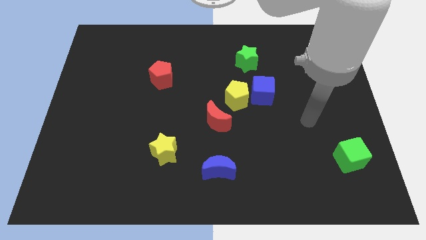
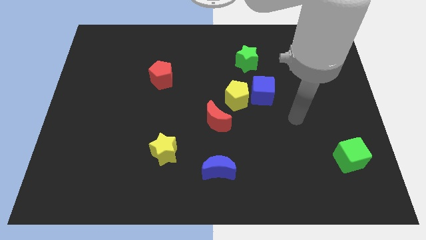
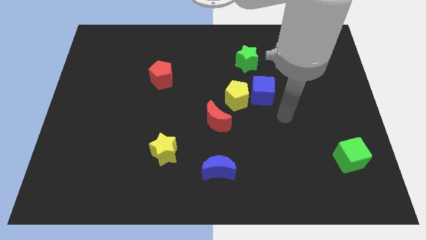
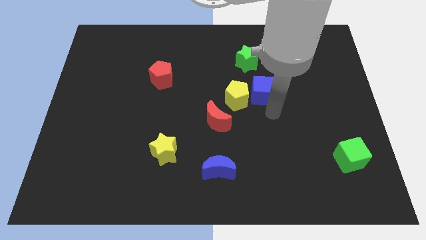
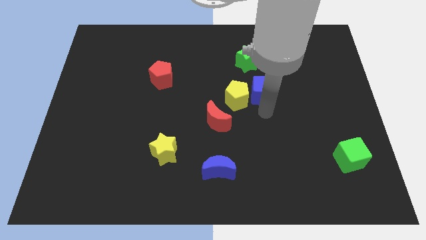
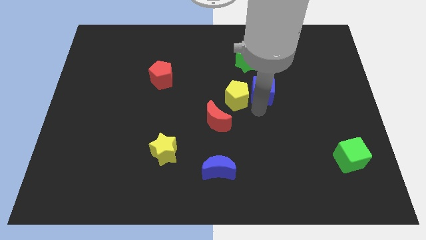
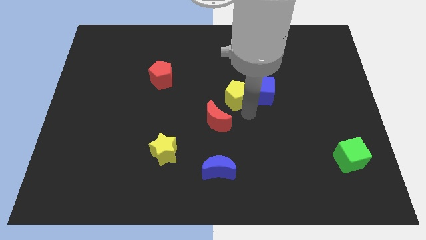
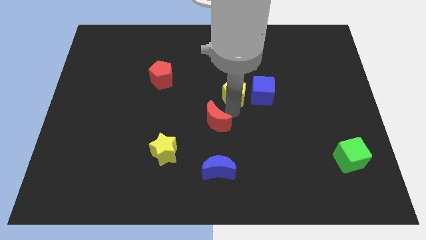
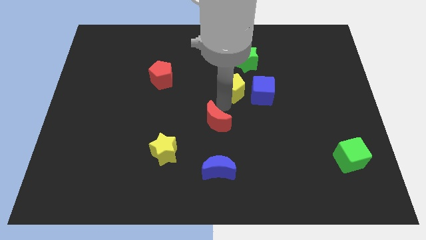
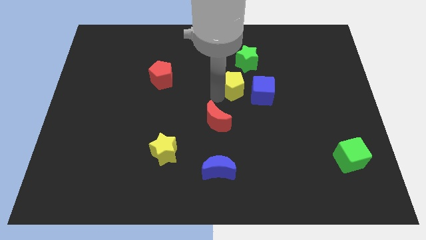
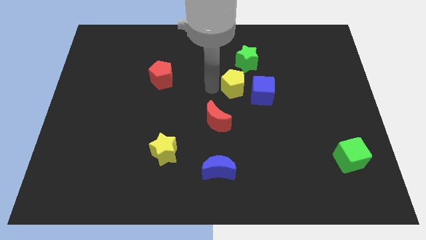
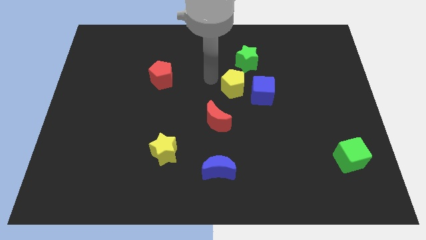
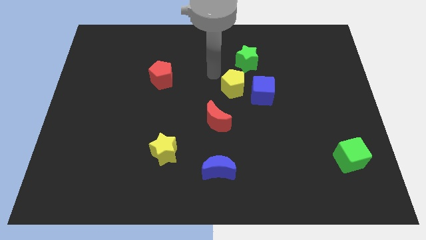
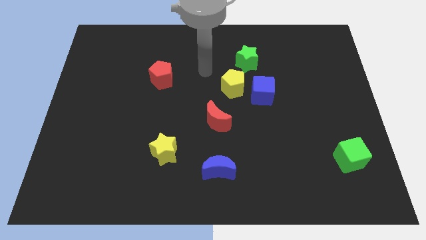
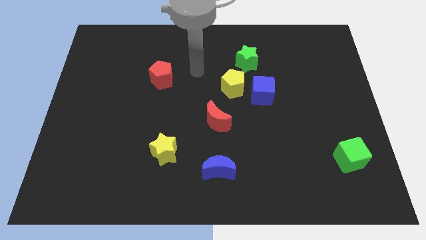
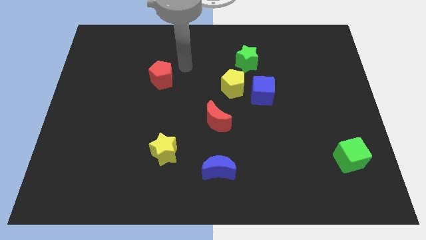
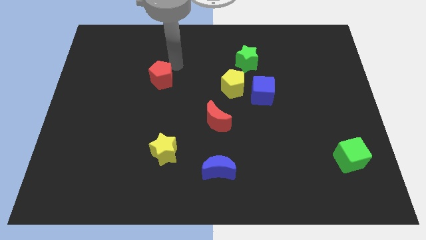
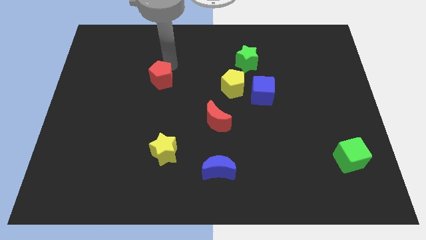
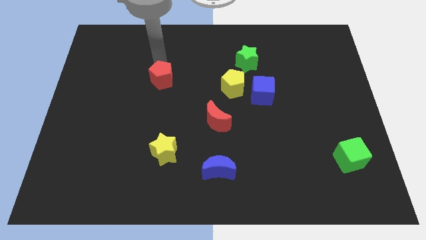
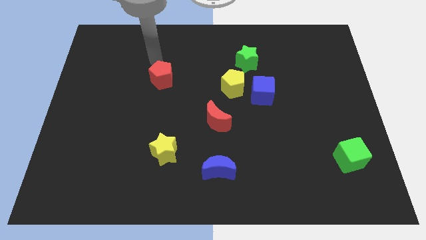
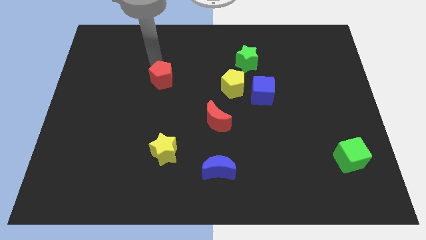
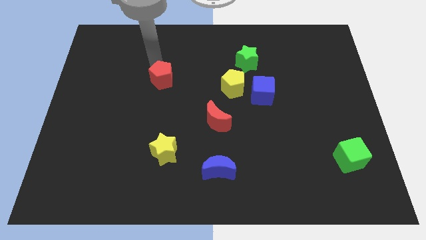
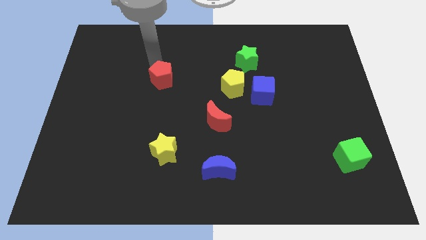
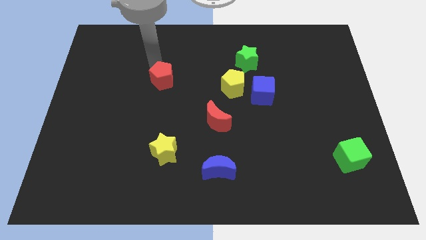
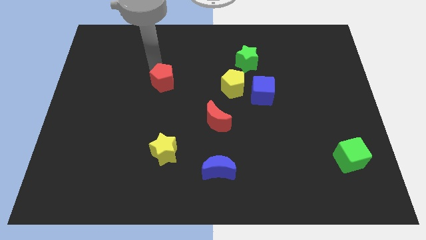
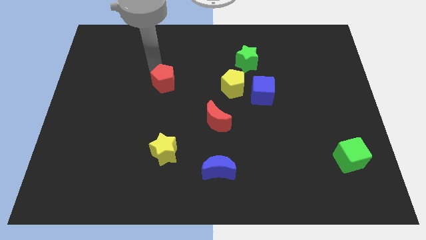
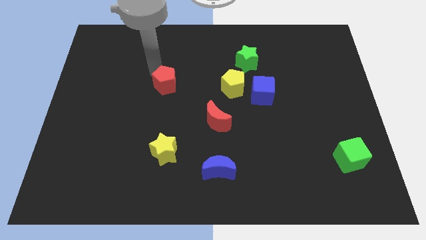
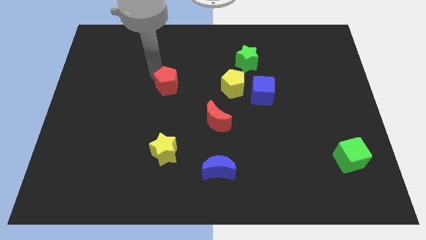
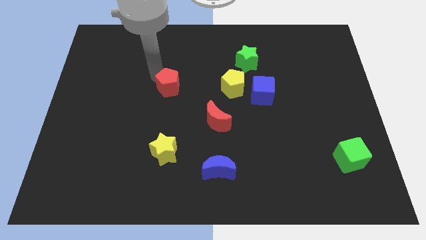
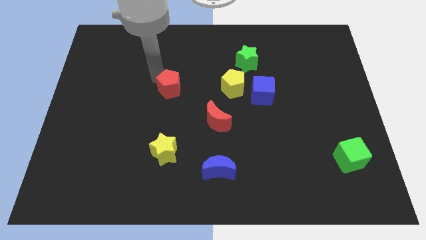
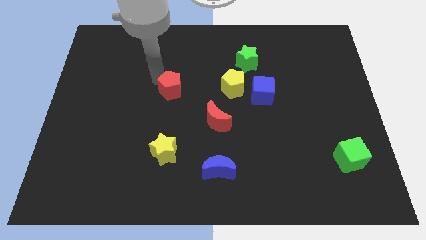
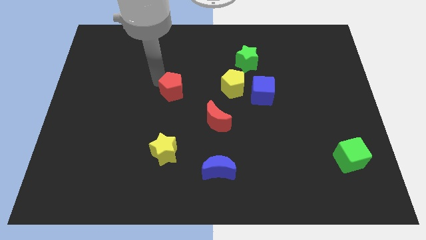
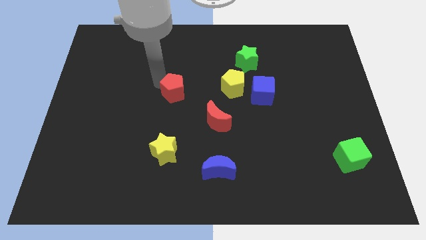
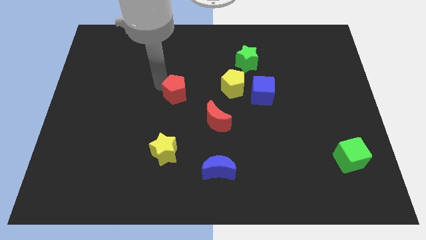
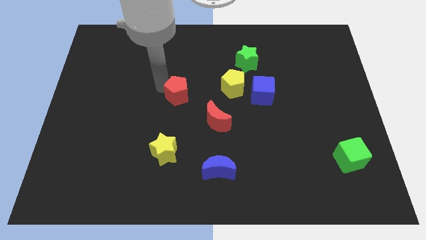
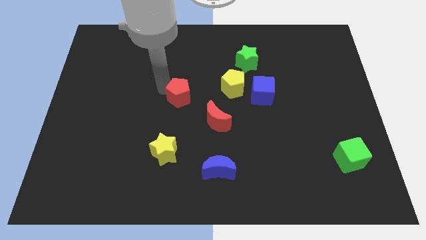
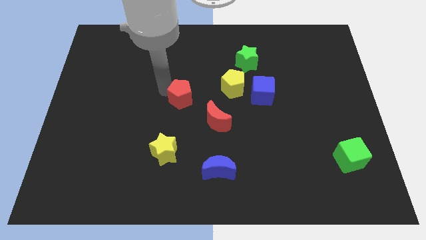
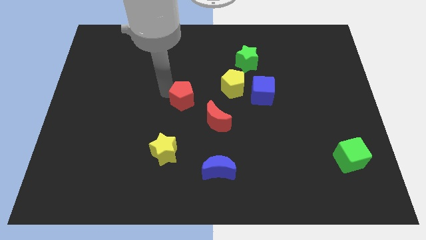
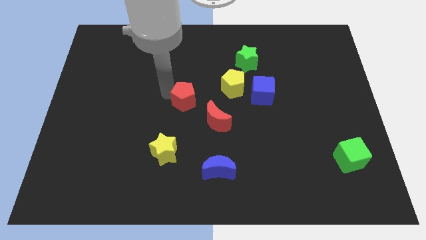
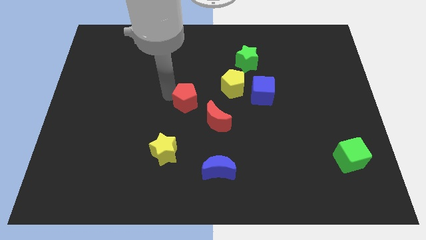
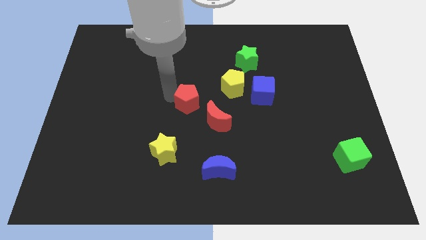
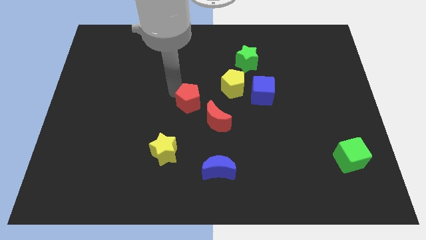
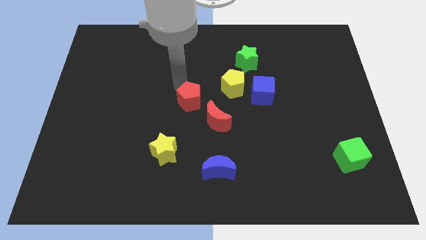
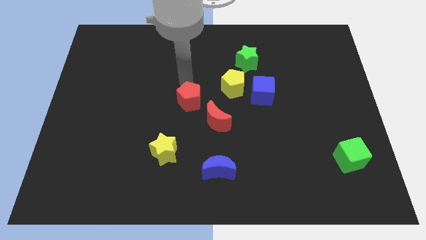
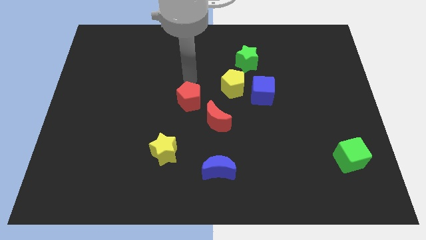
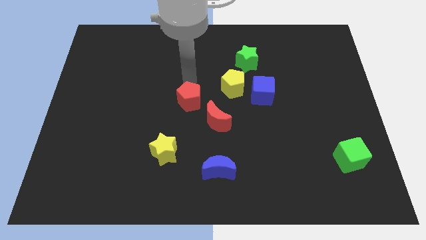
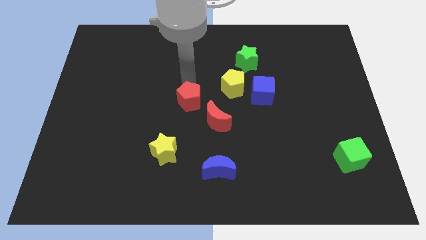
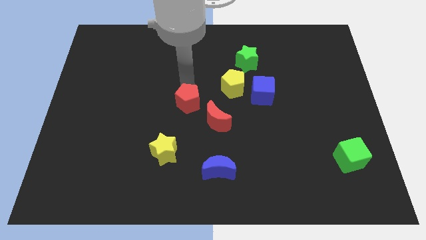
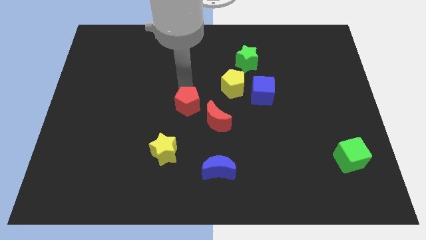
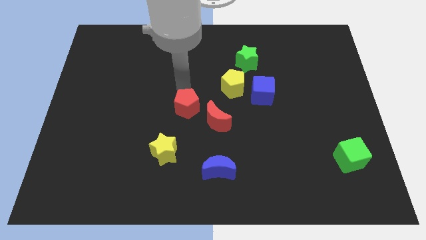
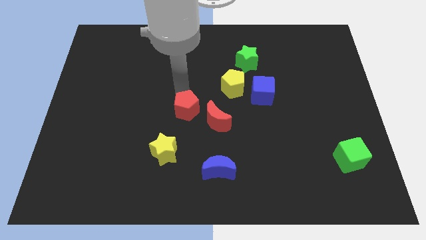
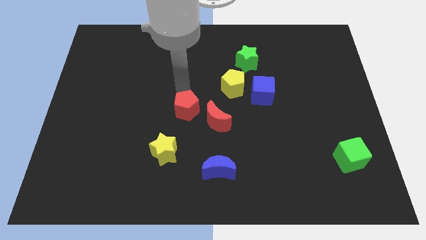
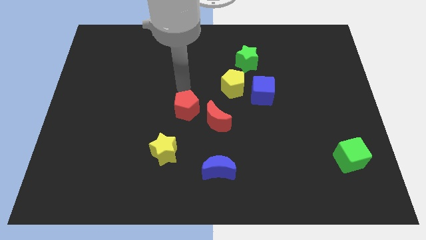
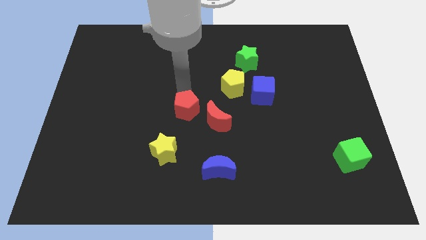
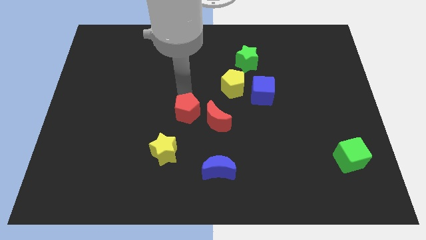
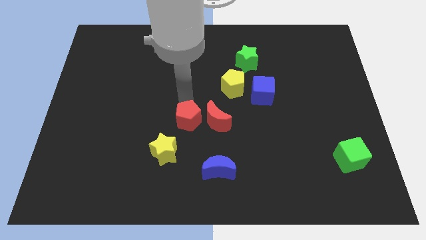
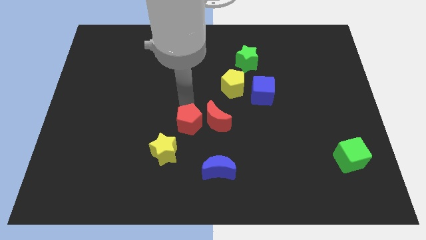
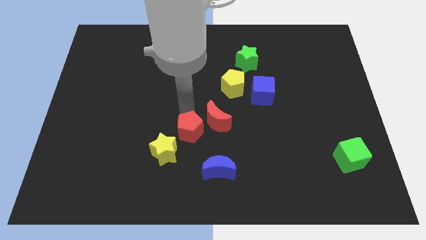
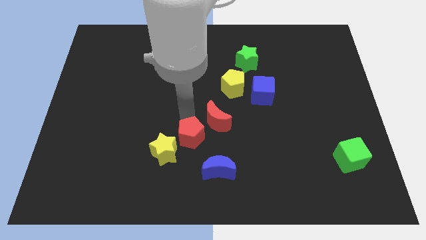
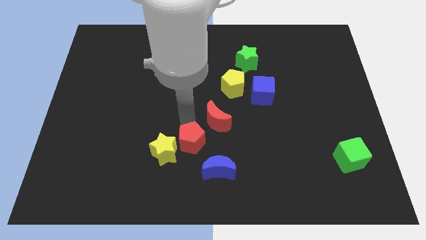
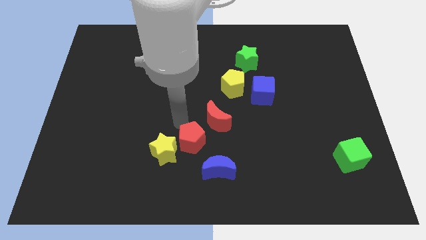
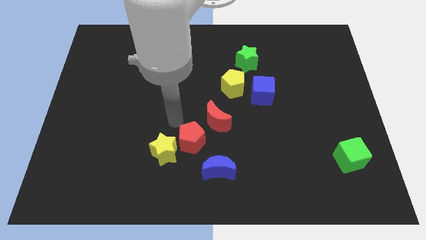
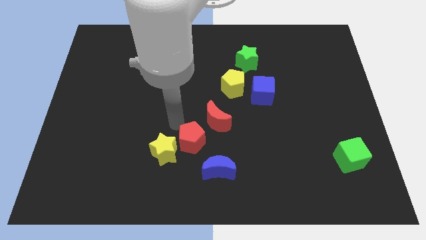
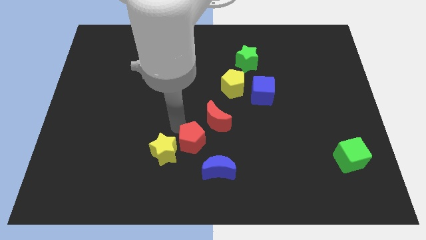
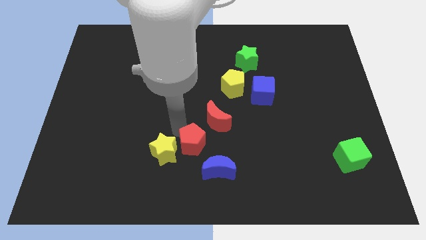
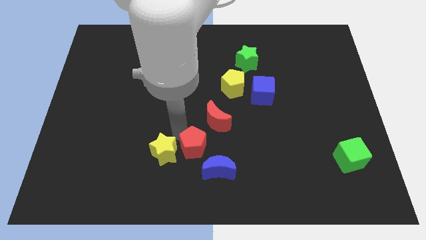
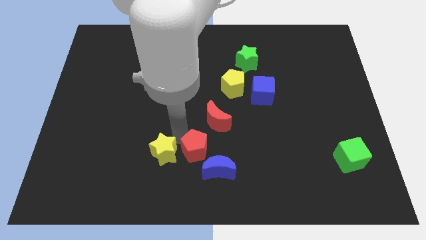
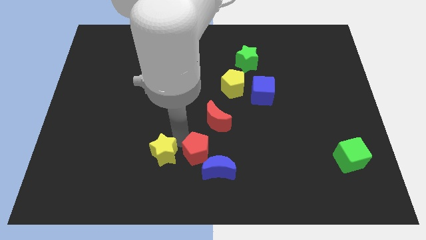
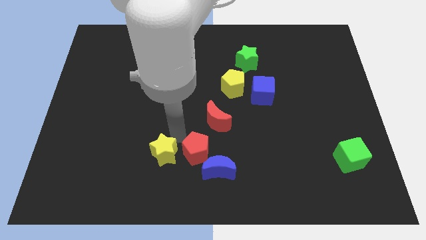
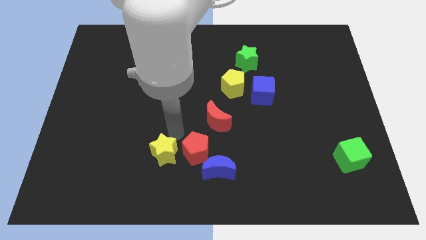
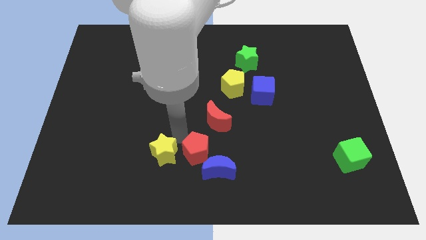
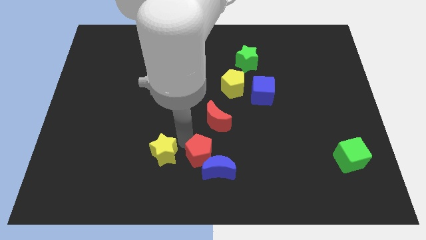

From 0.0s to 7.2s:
move the red pentagon to the blue moon
